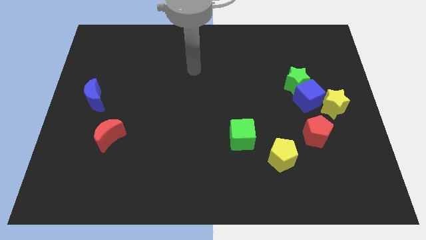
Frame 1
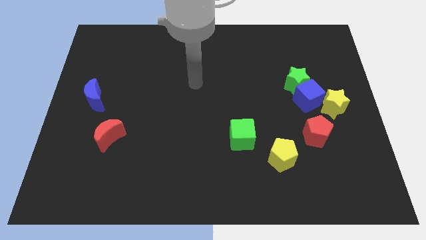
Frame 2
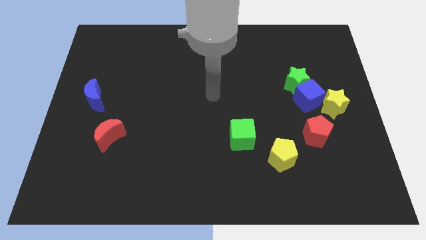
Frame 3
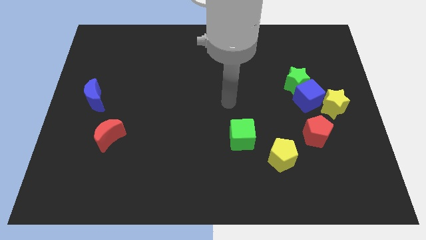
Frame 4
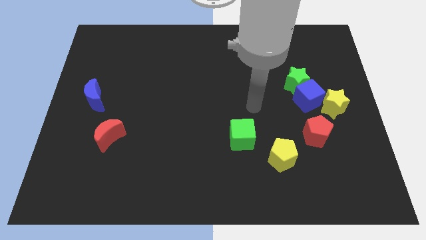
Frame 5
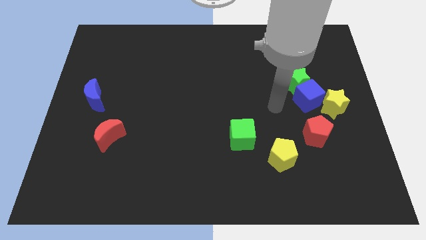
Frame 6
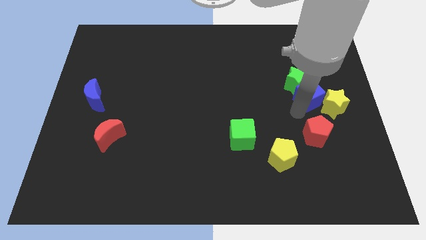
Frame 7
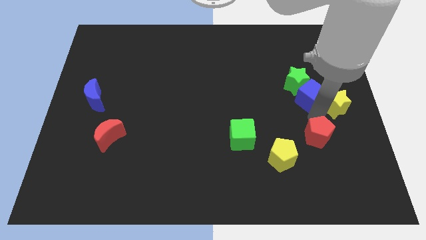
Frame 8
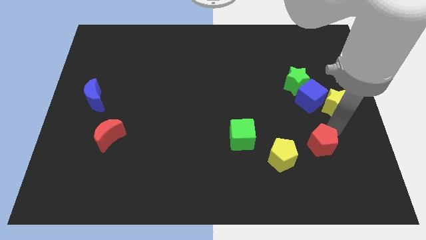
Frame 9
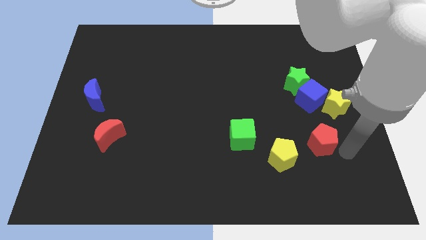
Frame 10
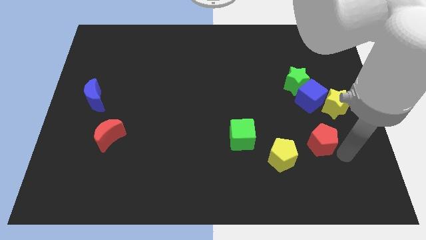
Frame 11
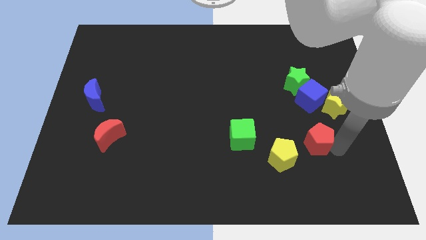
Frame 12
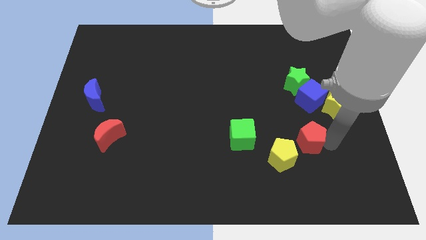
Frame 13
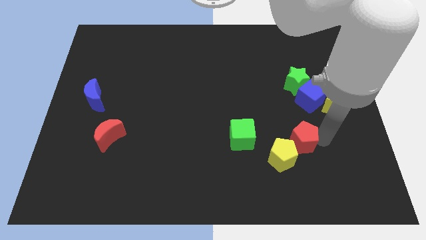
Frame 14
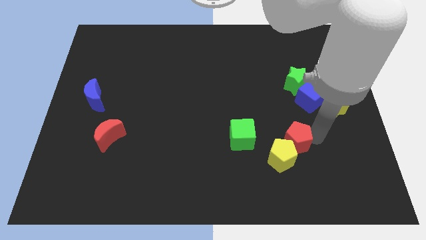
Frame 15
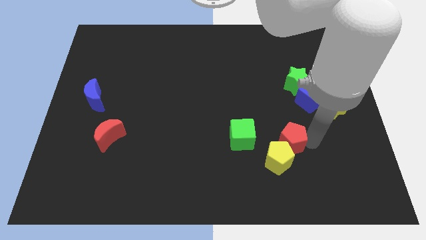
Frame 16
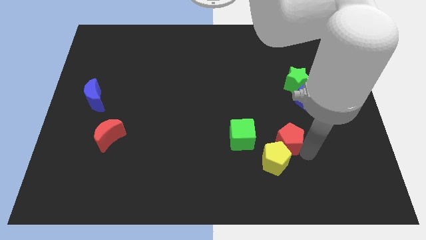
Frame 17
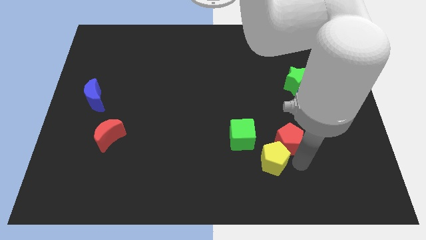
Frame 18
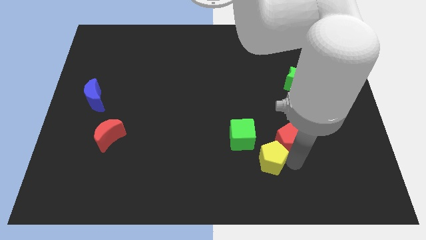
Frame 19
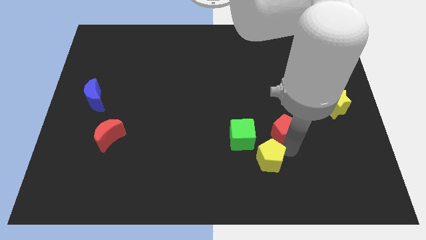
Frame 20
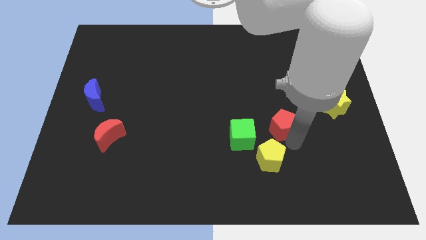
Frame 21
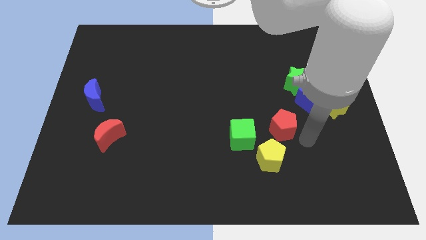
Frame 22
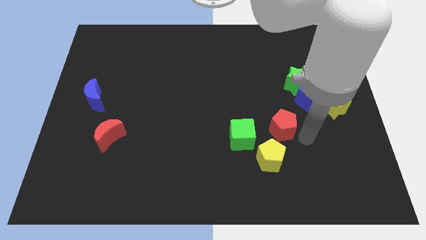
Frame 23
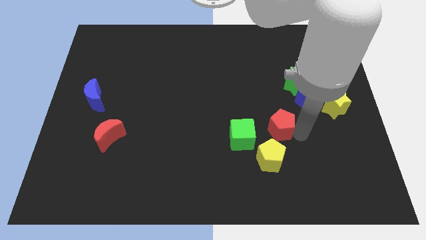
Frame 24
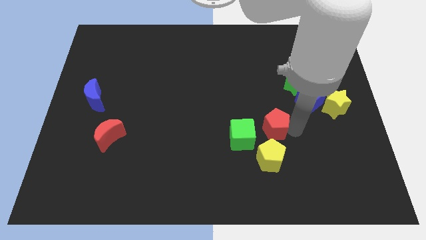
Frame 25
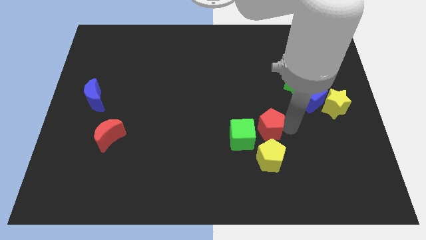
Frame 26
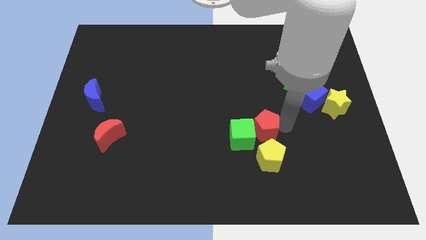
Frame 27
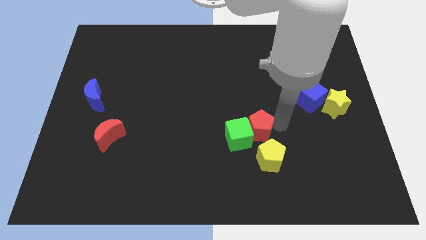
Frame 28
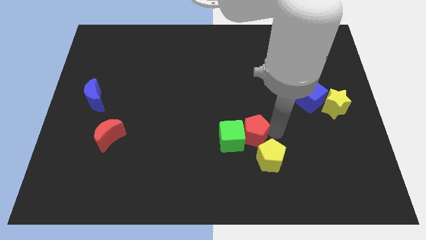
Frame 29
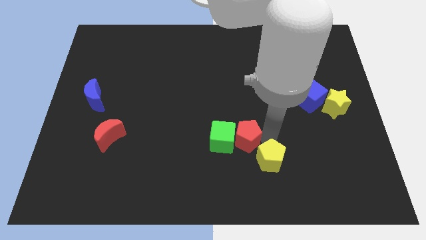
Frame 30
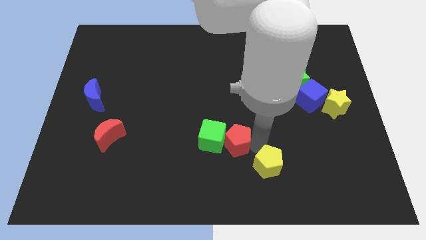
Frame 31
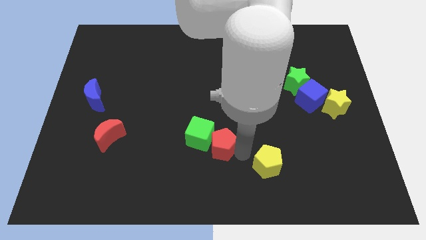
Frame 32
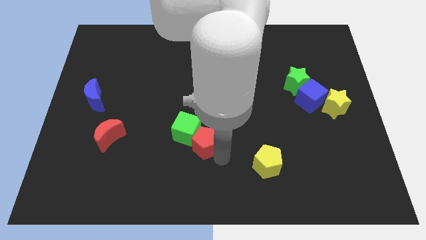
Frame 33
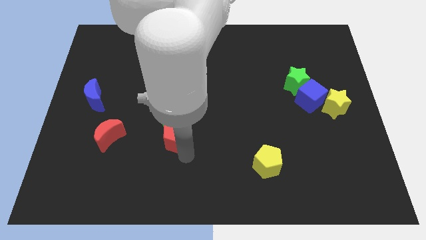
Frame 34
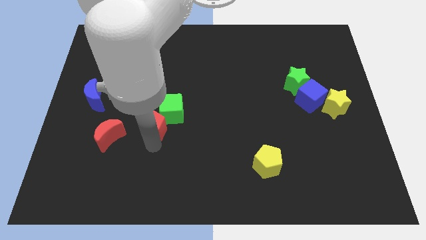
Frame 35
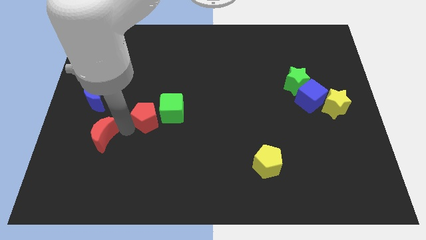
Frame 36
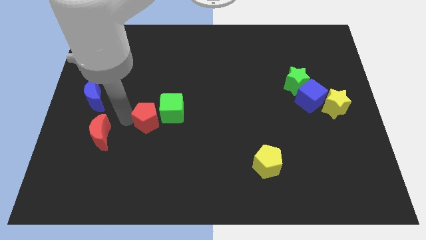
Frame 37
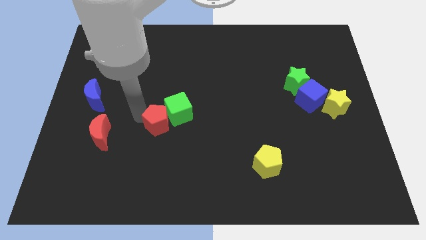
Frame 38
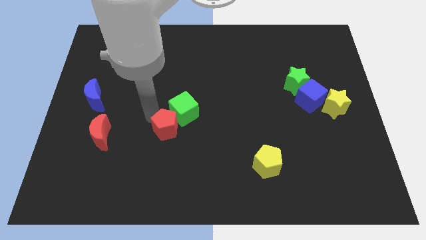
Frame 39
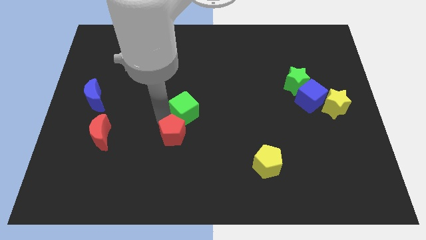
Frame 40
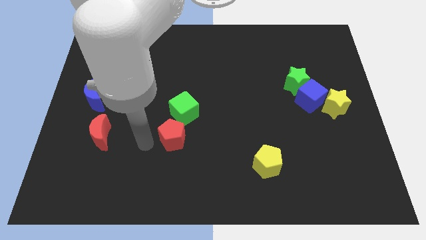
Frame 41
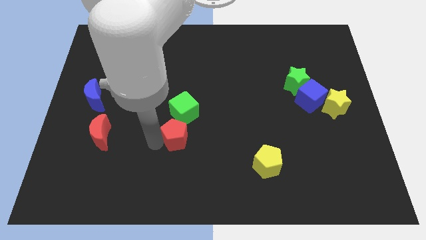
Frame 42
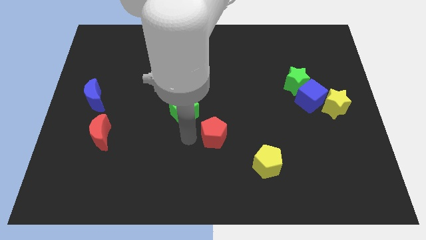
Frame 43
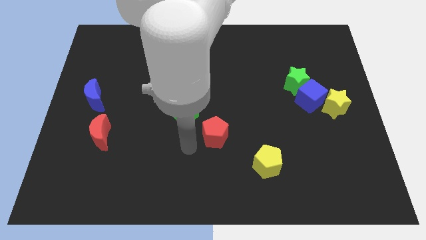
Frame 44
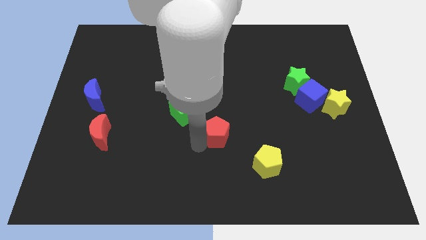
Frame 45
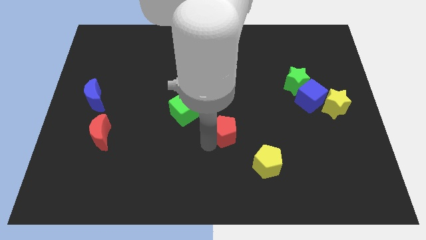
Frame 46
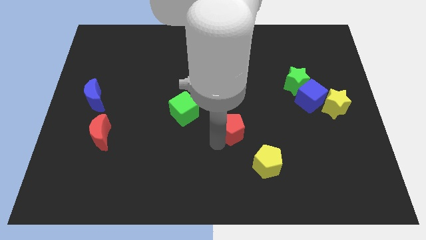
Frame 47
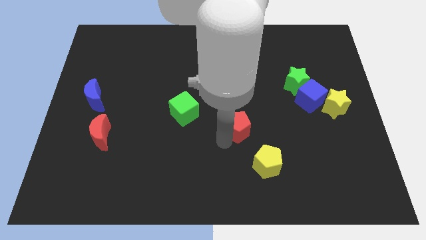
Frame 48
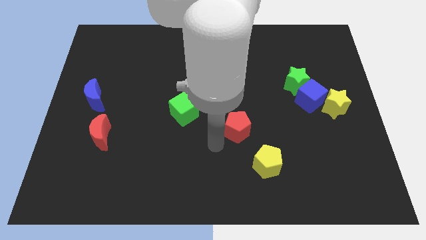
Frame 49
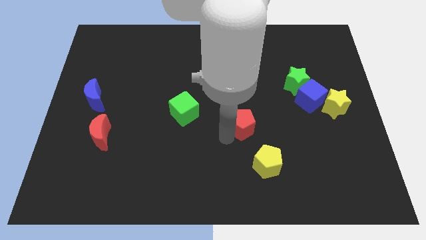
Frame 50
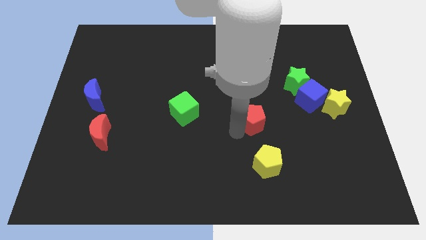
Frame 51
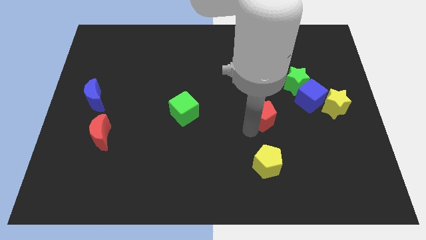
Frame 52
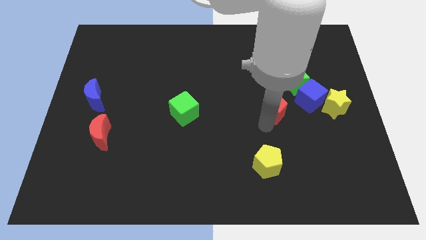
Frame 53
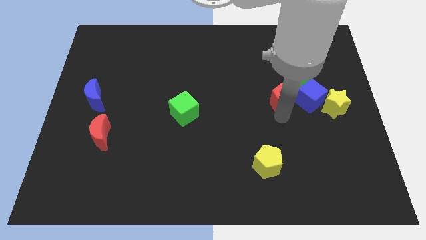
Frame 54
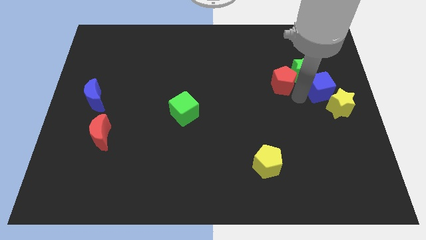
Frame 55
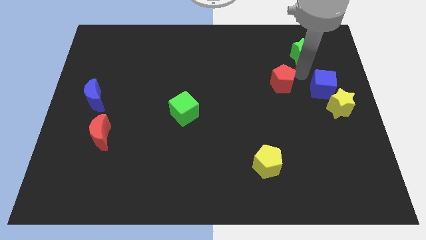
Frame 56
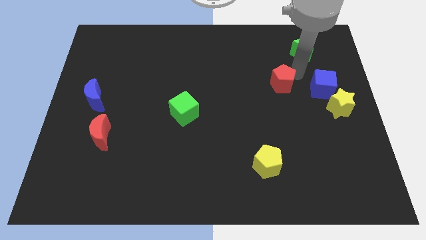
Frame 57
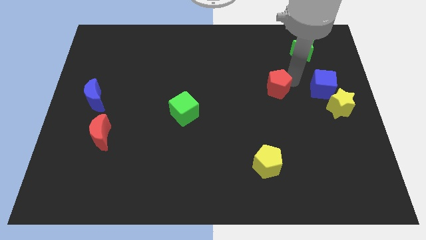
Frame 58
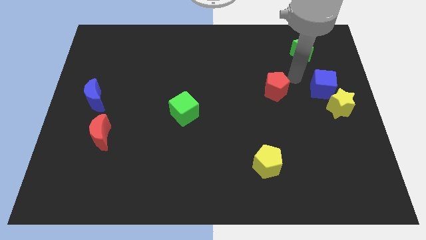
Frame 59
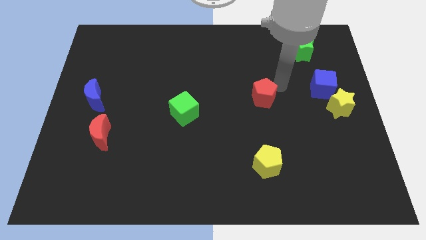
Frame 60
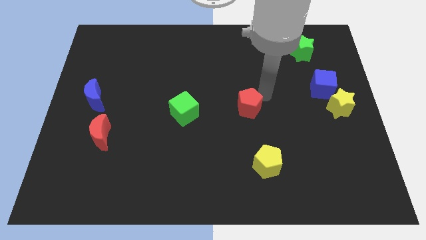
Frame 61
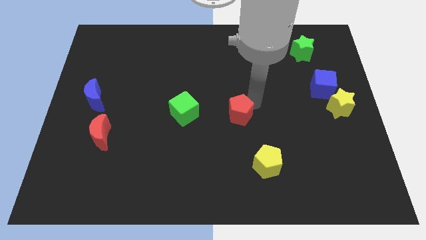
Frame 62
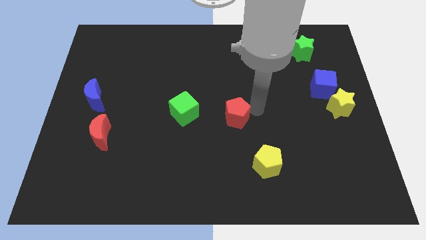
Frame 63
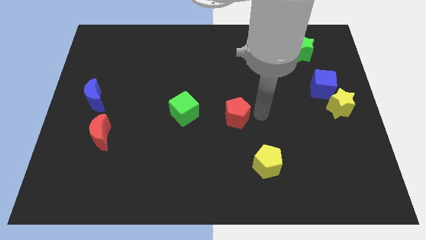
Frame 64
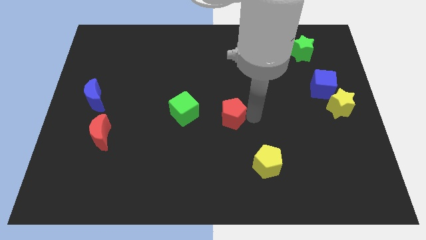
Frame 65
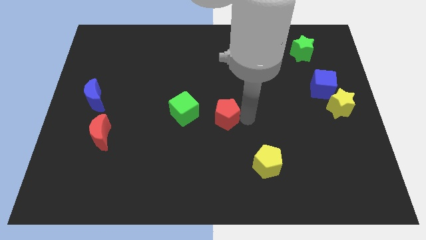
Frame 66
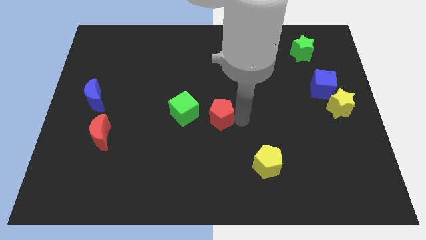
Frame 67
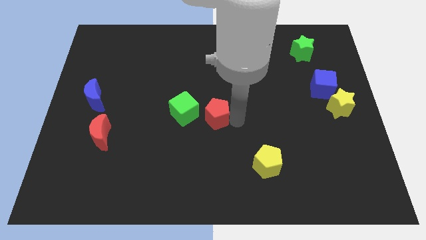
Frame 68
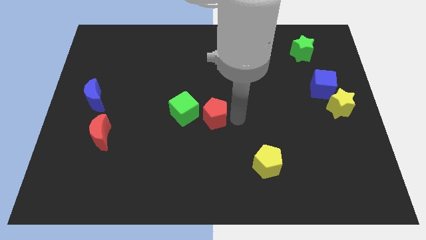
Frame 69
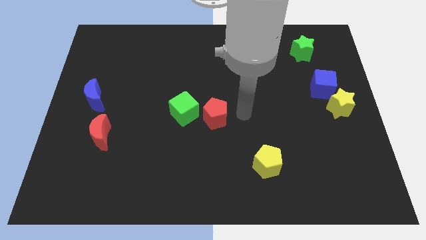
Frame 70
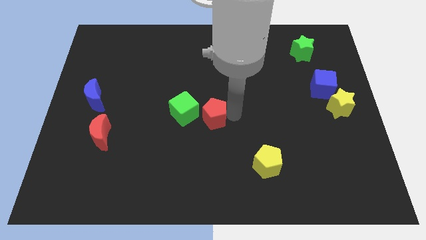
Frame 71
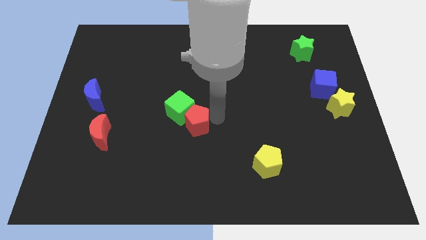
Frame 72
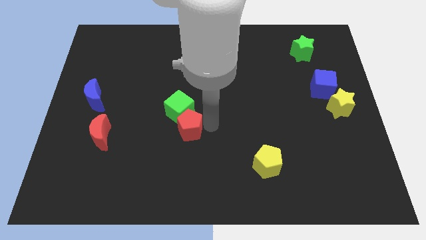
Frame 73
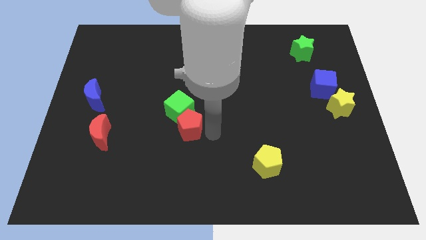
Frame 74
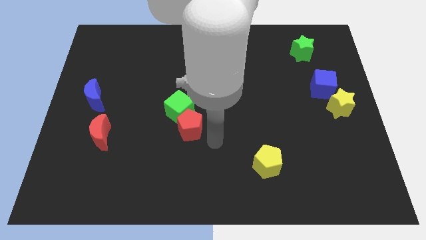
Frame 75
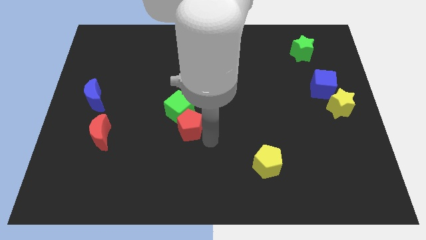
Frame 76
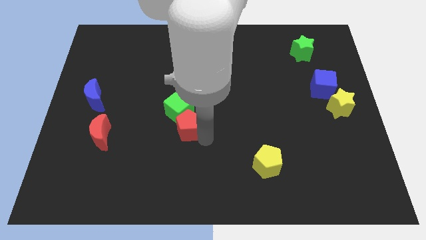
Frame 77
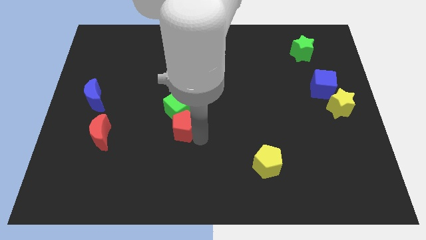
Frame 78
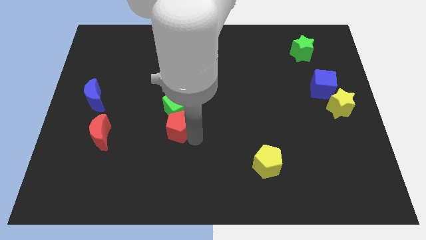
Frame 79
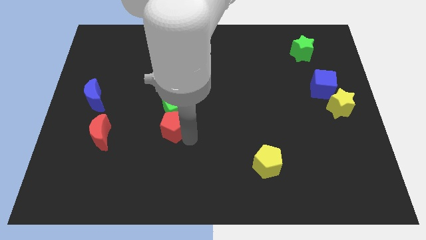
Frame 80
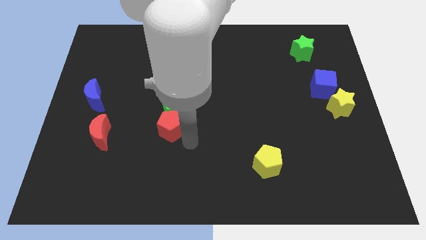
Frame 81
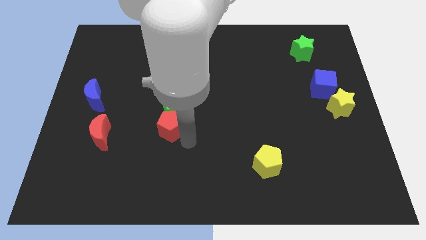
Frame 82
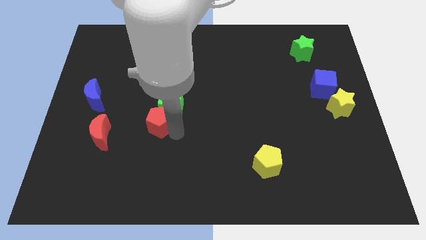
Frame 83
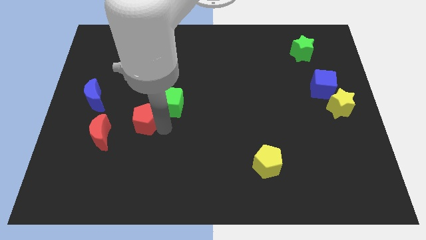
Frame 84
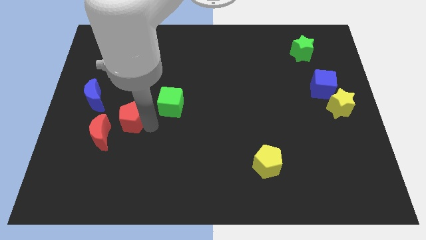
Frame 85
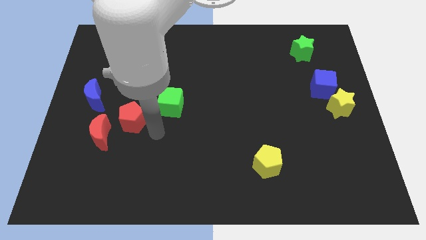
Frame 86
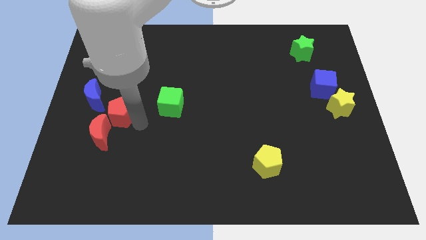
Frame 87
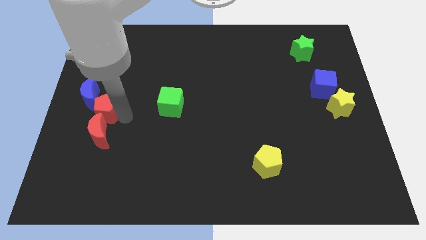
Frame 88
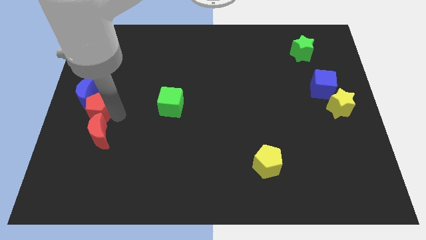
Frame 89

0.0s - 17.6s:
move the red pentagon close to the blue moon
